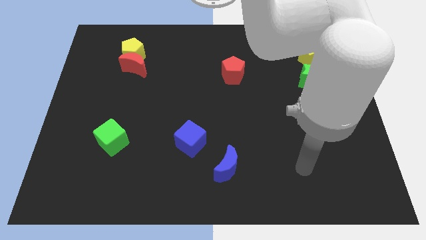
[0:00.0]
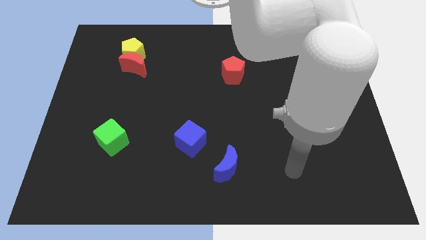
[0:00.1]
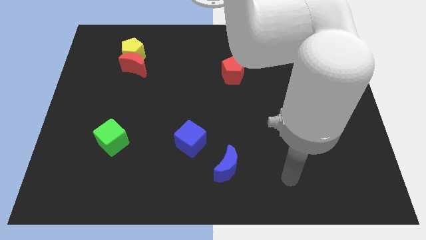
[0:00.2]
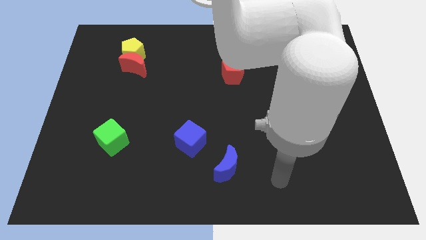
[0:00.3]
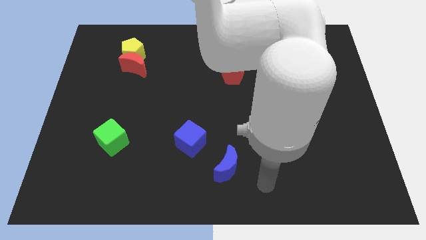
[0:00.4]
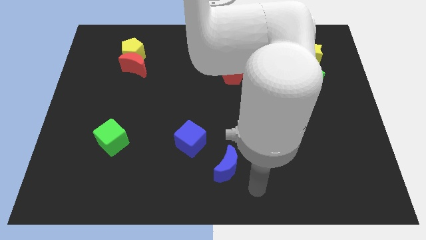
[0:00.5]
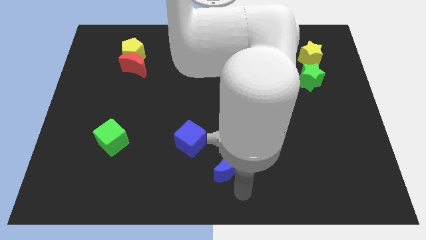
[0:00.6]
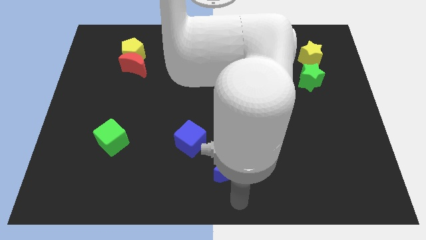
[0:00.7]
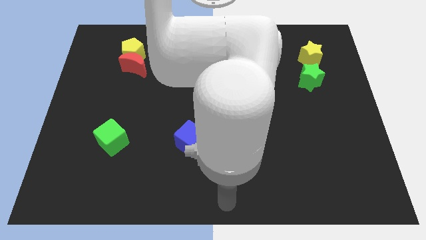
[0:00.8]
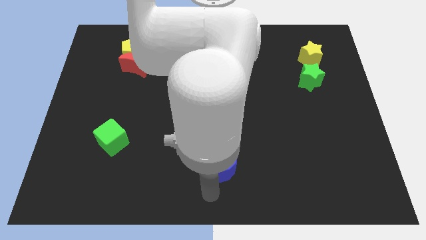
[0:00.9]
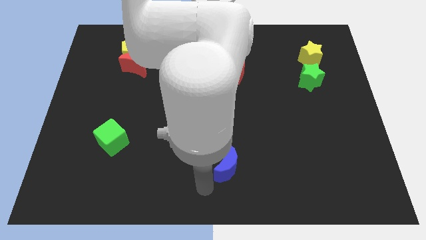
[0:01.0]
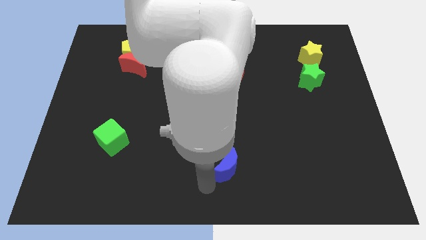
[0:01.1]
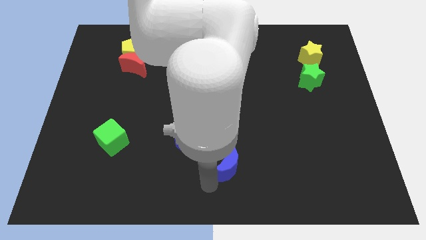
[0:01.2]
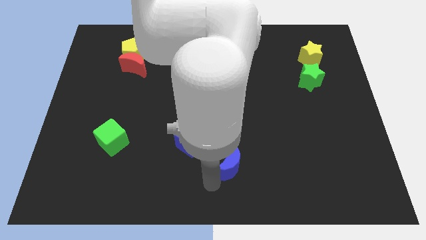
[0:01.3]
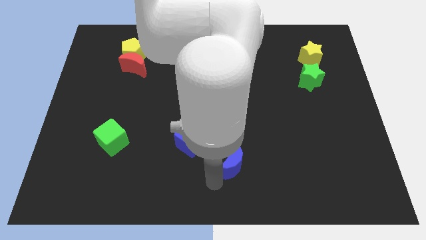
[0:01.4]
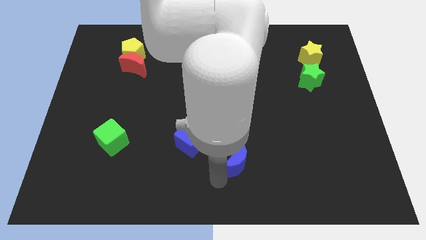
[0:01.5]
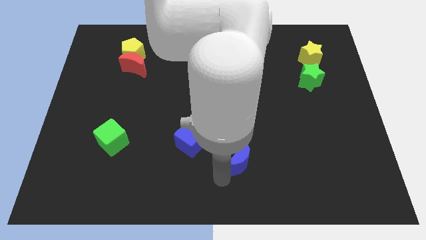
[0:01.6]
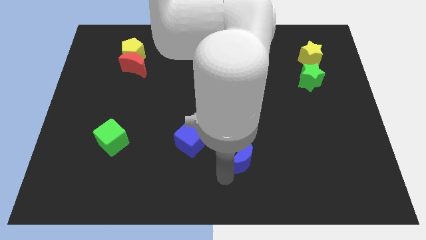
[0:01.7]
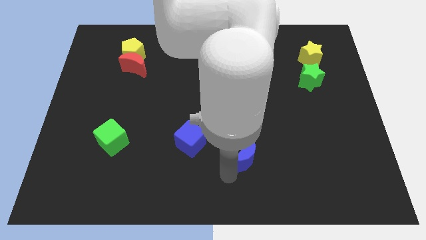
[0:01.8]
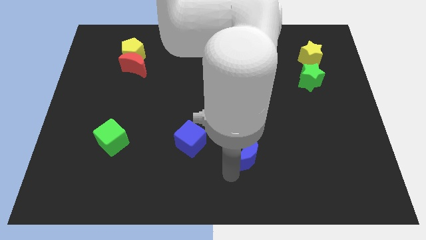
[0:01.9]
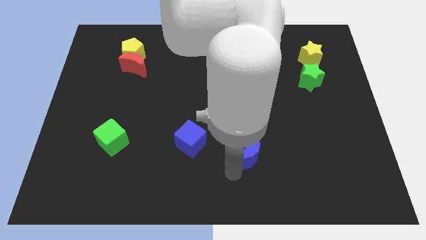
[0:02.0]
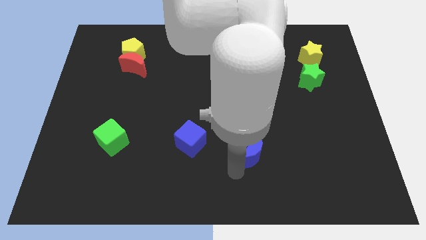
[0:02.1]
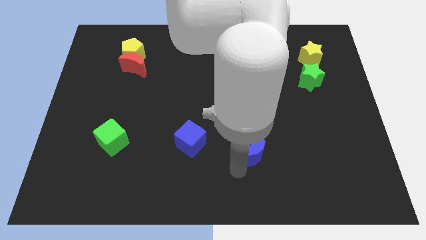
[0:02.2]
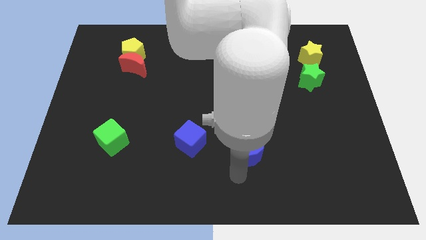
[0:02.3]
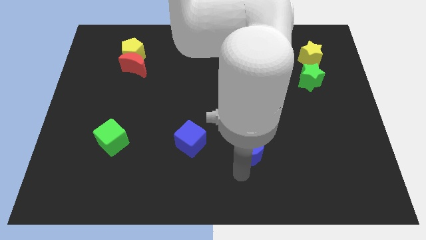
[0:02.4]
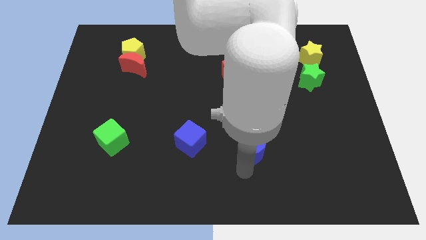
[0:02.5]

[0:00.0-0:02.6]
move the blue moon a bit up and to the right

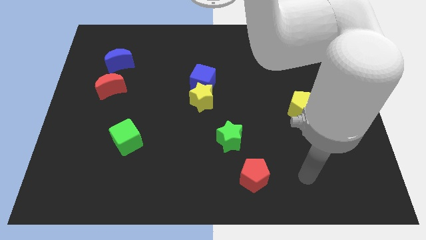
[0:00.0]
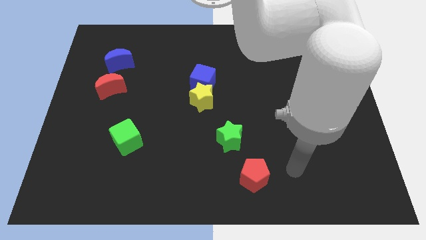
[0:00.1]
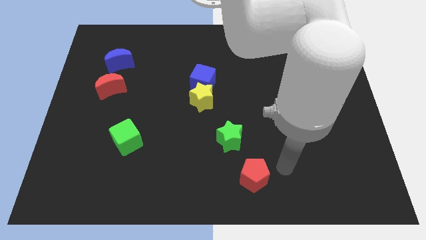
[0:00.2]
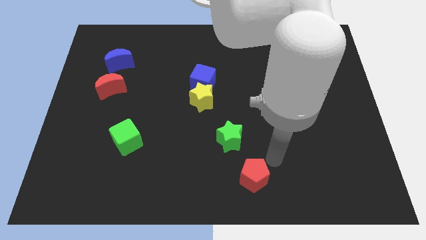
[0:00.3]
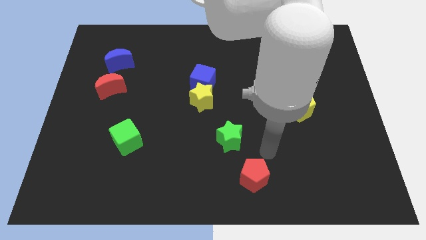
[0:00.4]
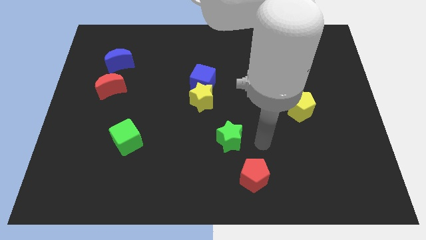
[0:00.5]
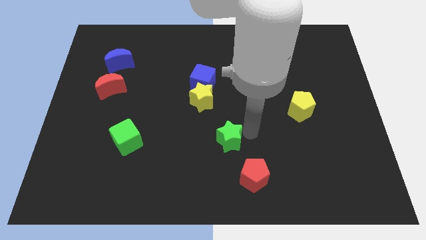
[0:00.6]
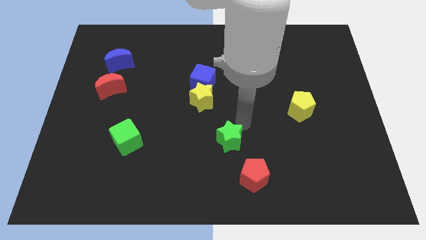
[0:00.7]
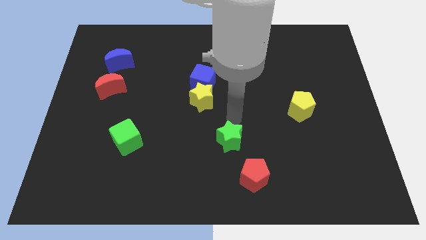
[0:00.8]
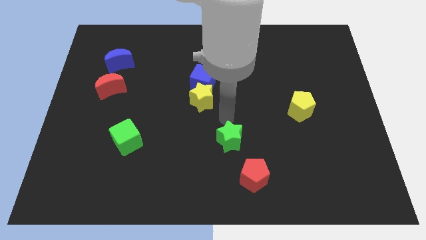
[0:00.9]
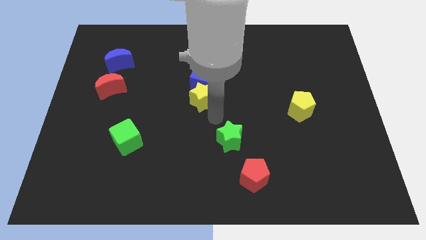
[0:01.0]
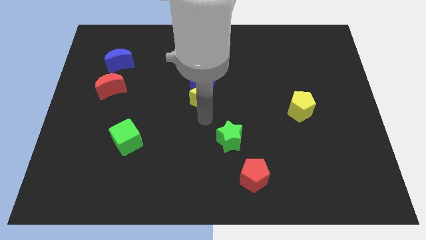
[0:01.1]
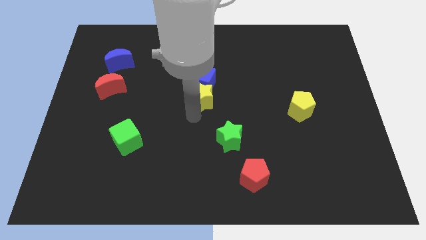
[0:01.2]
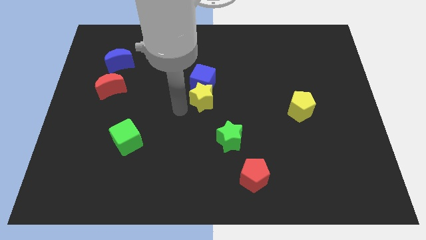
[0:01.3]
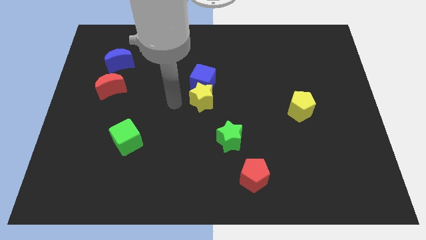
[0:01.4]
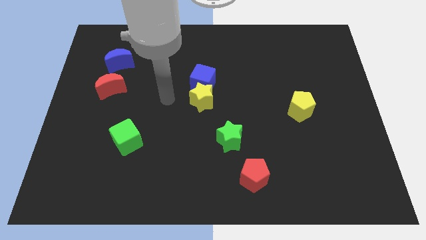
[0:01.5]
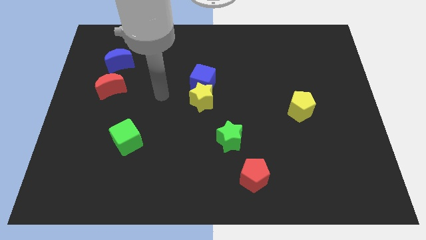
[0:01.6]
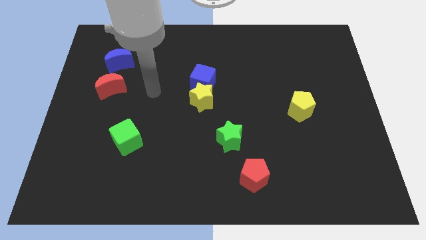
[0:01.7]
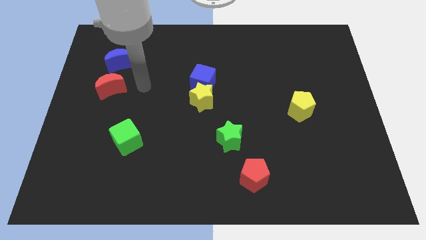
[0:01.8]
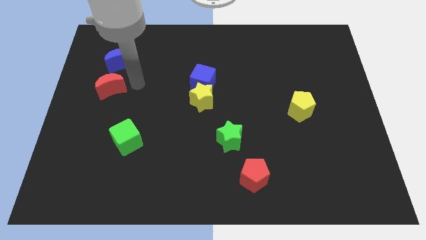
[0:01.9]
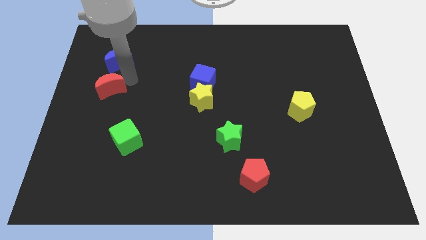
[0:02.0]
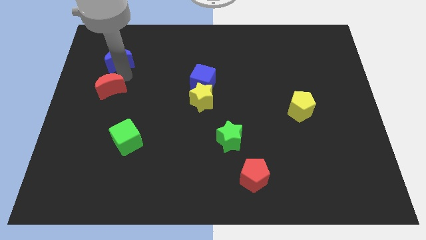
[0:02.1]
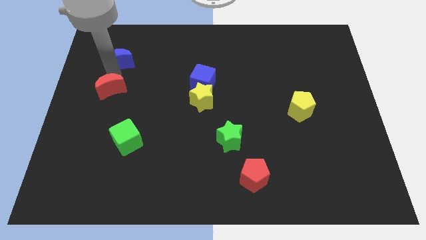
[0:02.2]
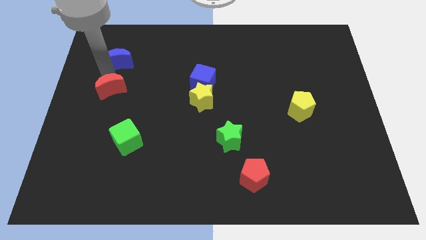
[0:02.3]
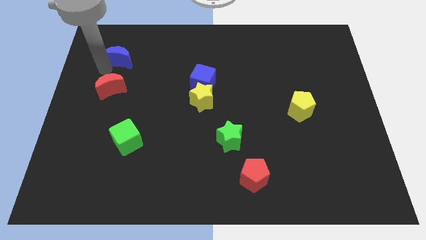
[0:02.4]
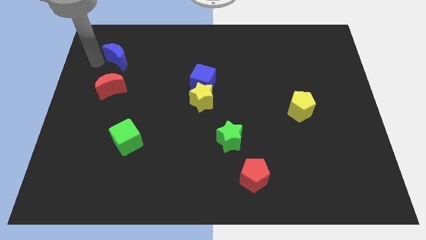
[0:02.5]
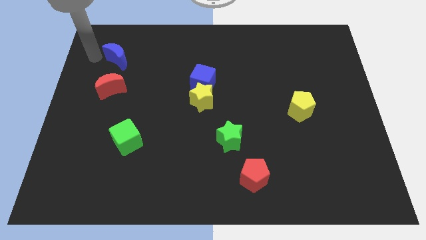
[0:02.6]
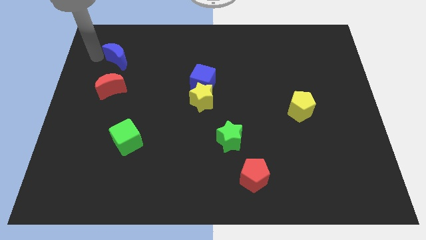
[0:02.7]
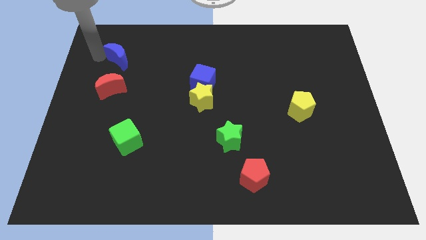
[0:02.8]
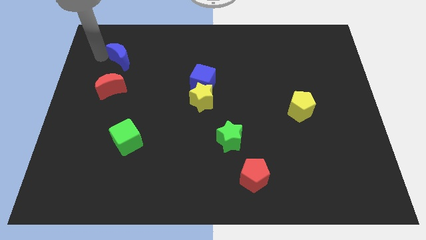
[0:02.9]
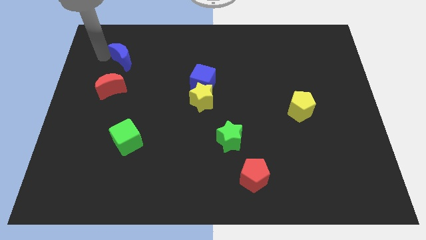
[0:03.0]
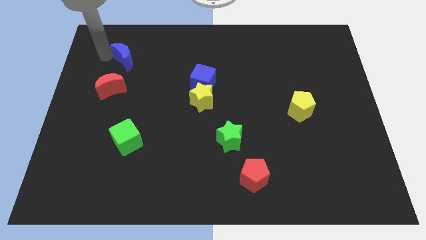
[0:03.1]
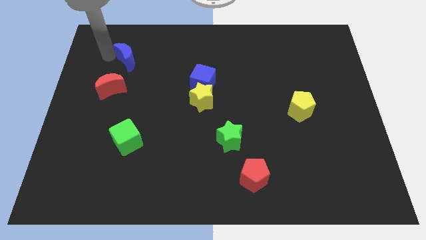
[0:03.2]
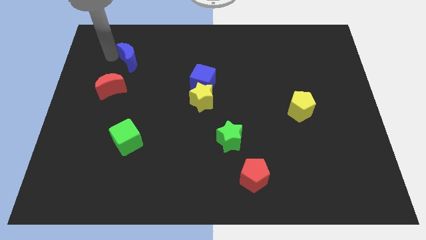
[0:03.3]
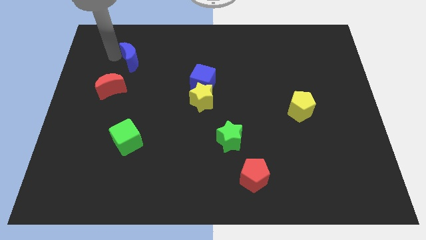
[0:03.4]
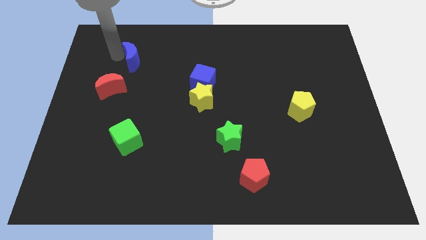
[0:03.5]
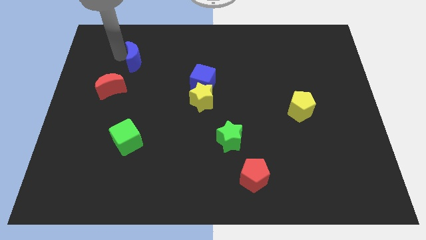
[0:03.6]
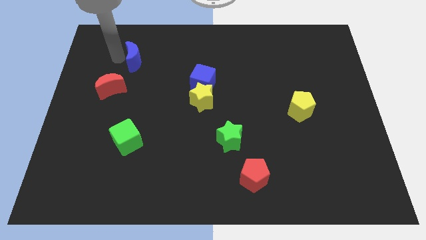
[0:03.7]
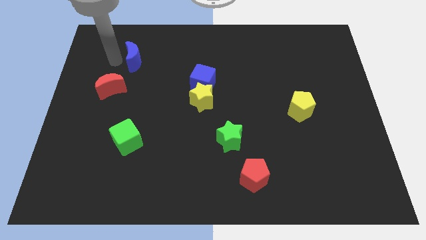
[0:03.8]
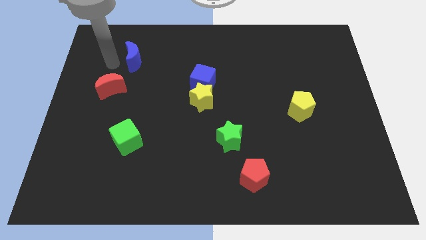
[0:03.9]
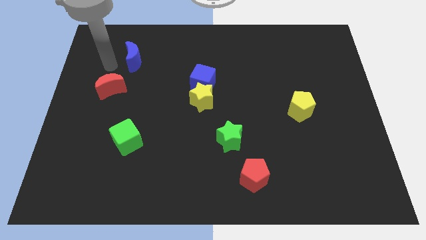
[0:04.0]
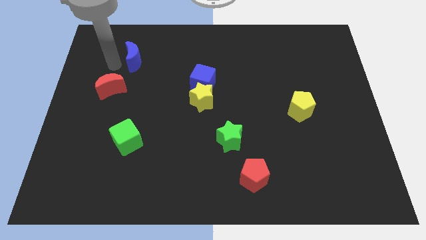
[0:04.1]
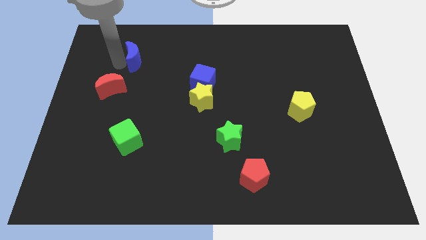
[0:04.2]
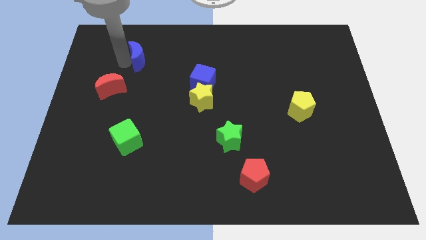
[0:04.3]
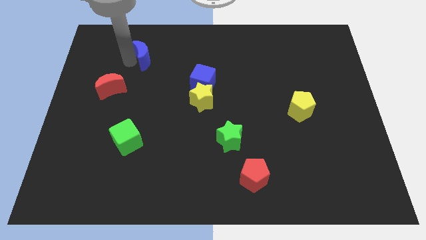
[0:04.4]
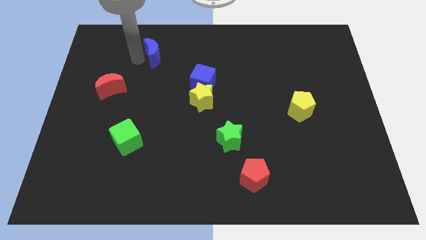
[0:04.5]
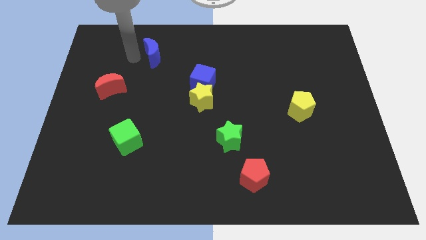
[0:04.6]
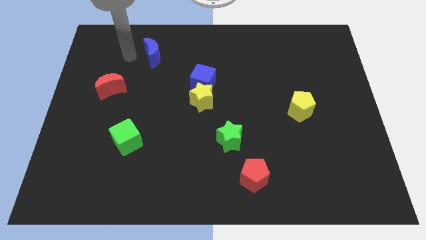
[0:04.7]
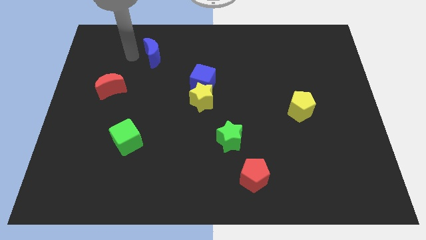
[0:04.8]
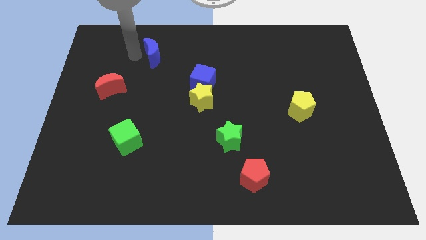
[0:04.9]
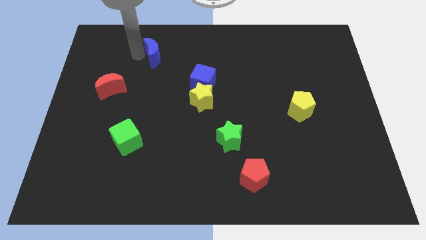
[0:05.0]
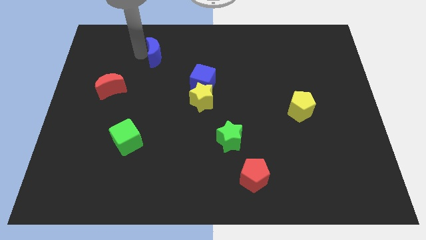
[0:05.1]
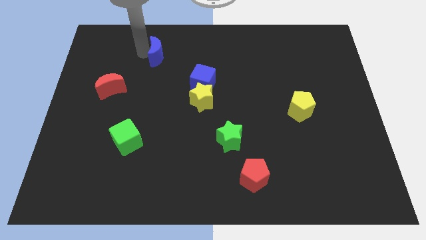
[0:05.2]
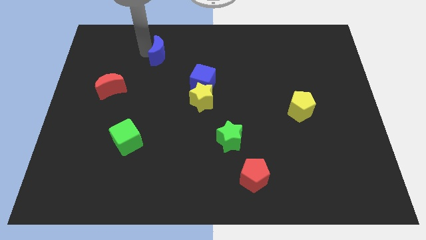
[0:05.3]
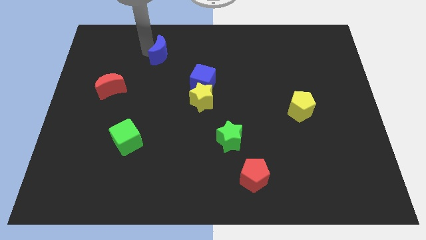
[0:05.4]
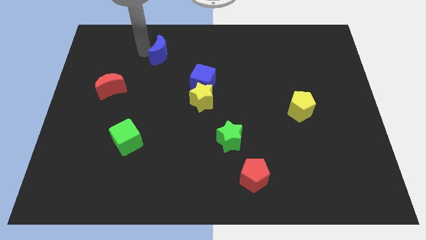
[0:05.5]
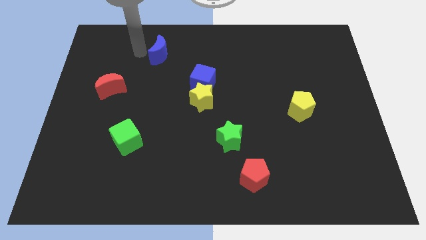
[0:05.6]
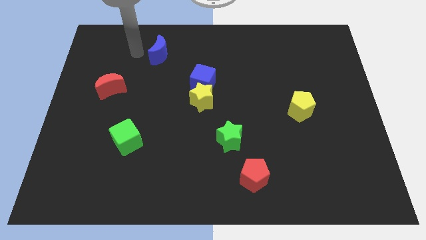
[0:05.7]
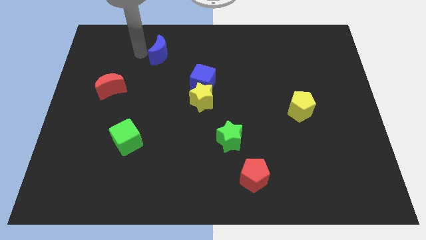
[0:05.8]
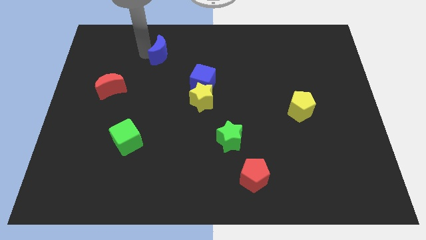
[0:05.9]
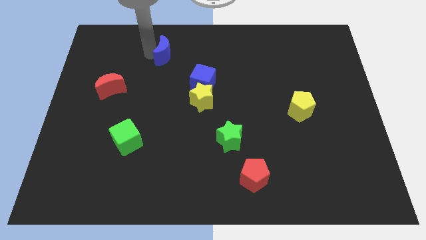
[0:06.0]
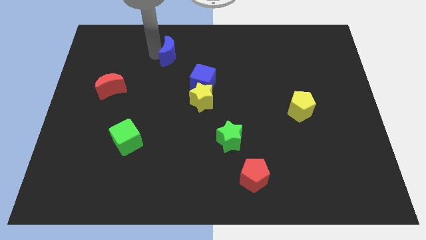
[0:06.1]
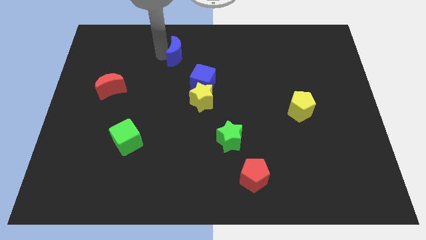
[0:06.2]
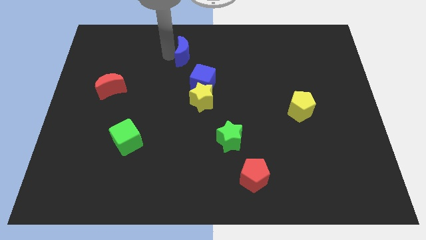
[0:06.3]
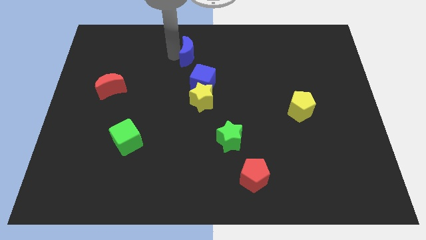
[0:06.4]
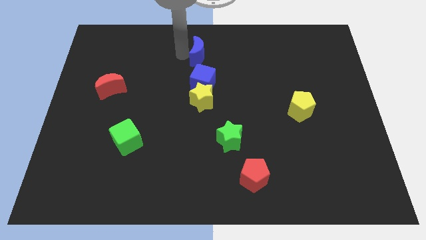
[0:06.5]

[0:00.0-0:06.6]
slide the blue moon to the right
